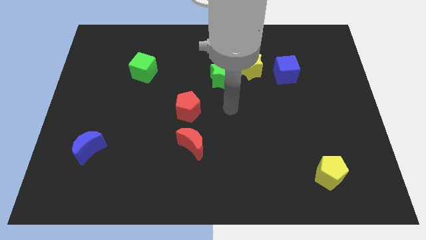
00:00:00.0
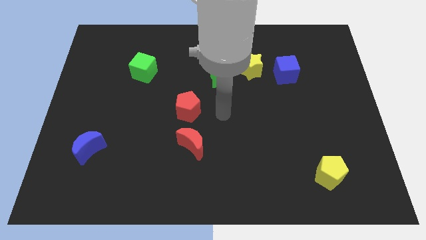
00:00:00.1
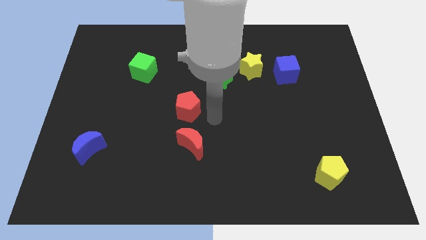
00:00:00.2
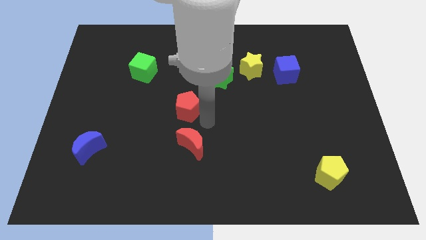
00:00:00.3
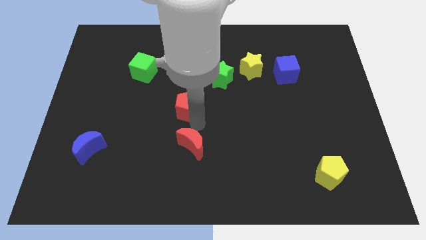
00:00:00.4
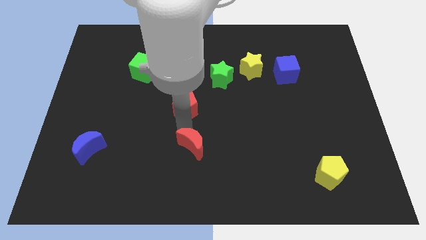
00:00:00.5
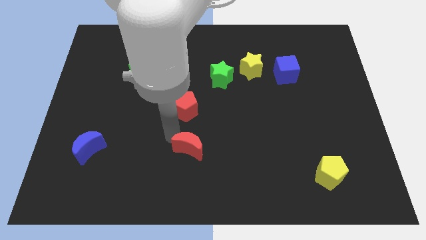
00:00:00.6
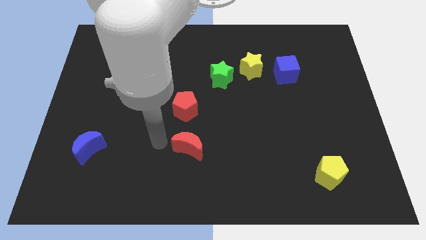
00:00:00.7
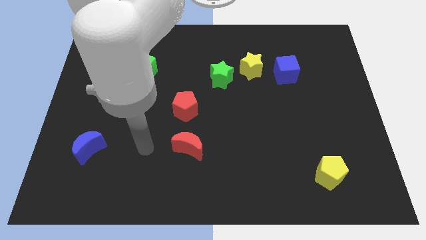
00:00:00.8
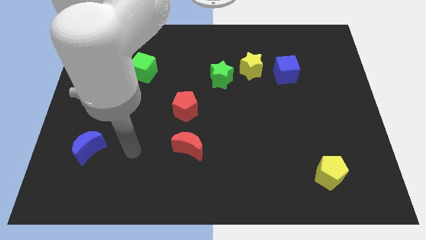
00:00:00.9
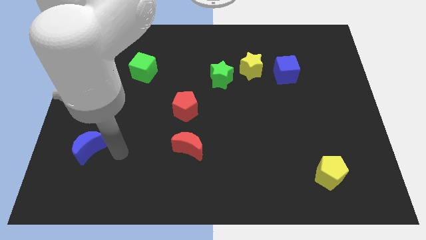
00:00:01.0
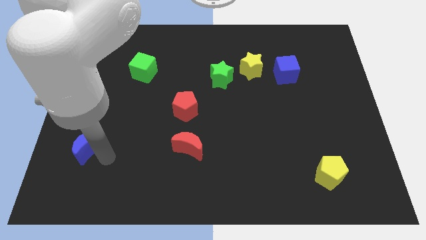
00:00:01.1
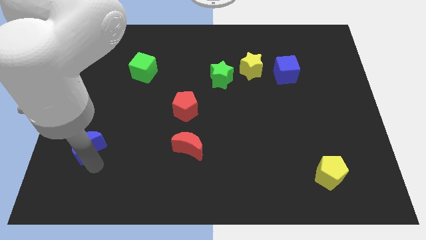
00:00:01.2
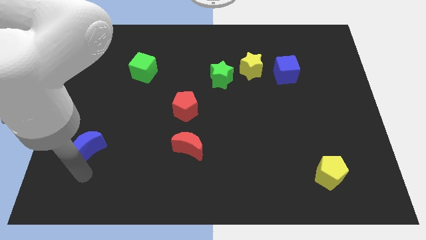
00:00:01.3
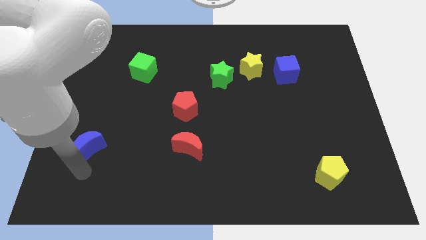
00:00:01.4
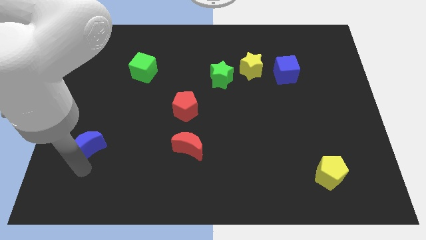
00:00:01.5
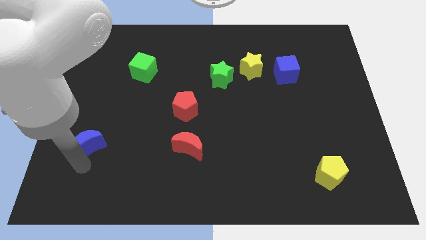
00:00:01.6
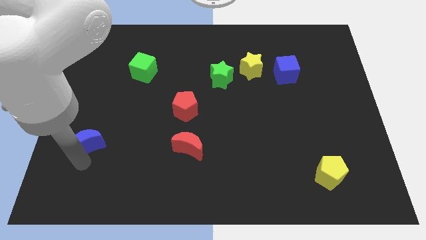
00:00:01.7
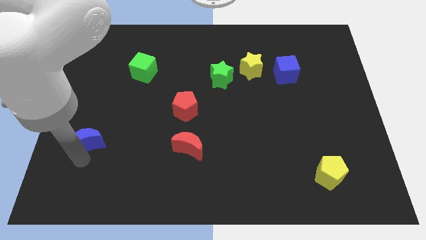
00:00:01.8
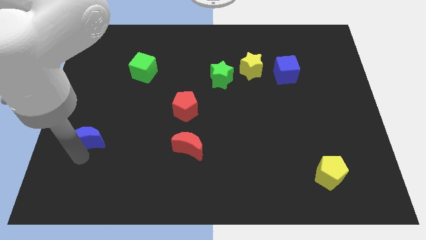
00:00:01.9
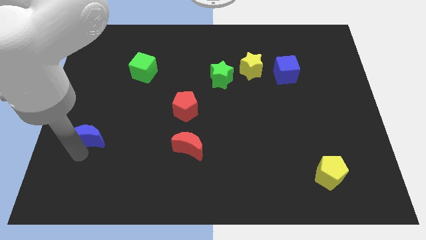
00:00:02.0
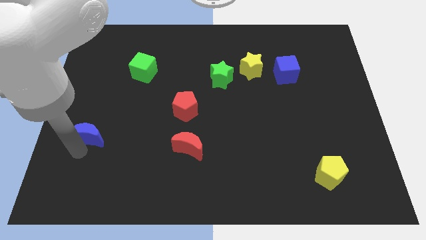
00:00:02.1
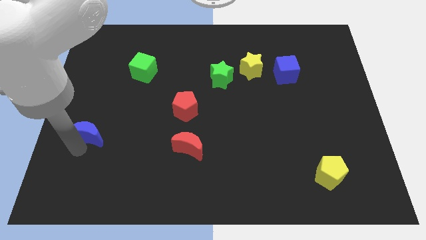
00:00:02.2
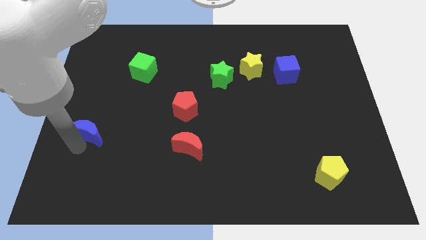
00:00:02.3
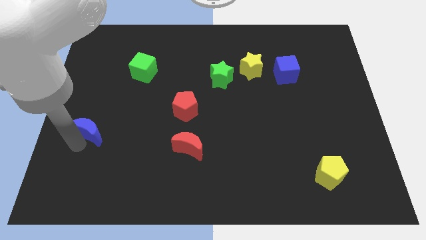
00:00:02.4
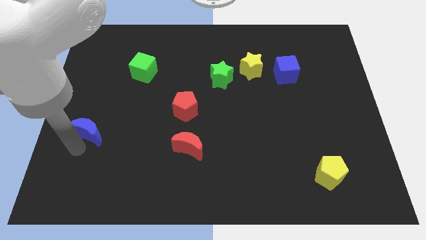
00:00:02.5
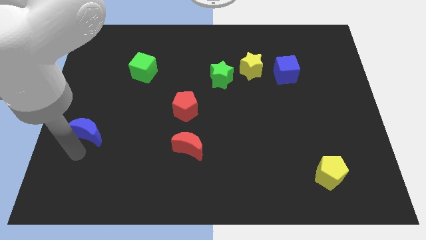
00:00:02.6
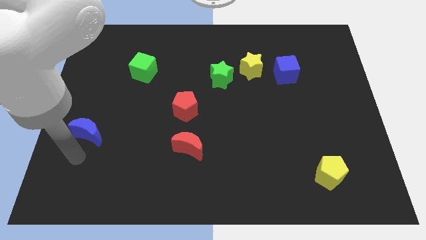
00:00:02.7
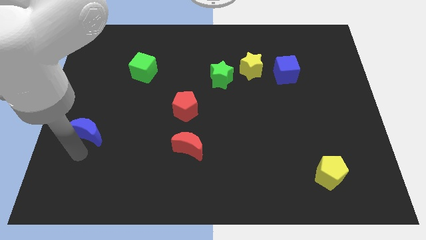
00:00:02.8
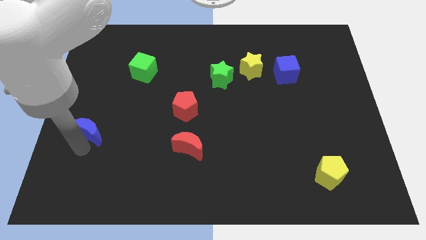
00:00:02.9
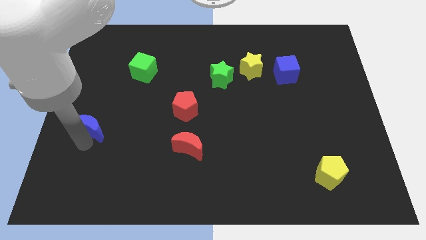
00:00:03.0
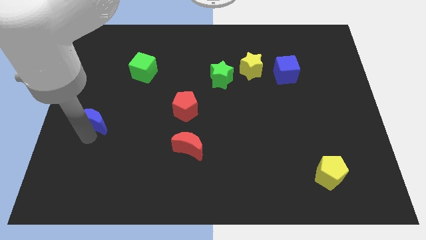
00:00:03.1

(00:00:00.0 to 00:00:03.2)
move the blue moon up slightly

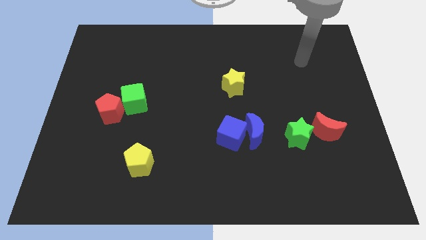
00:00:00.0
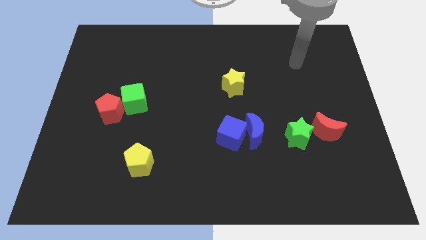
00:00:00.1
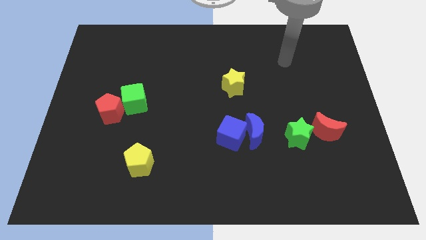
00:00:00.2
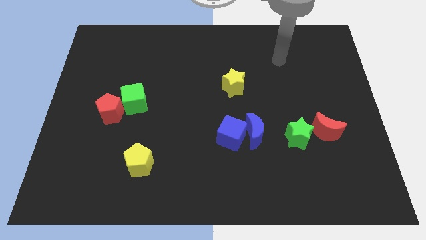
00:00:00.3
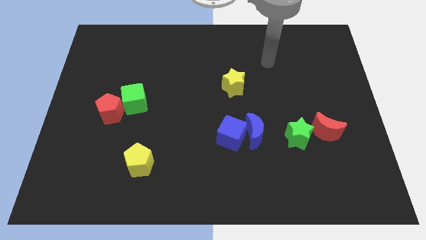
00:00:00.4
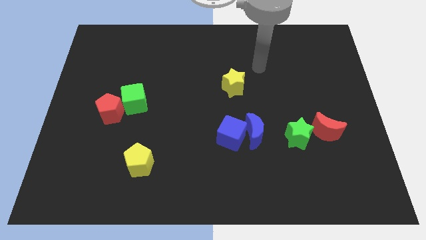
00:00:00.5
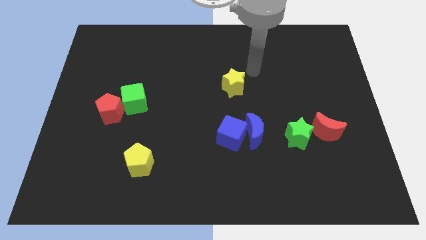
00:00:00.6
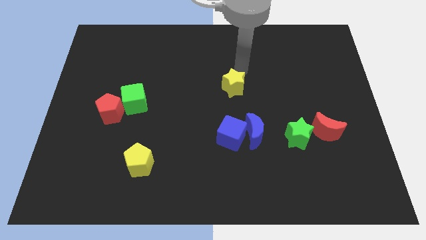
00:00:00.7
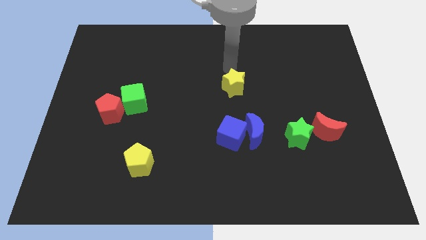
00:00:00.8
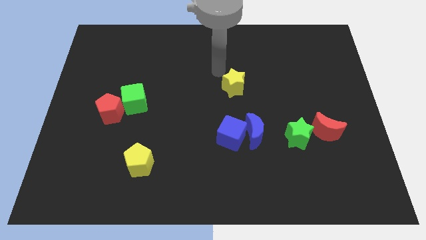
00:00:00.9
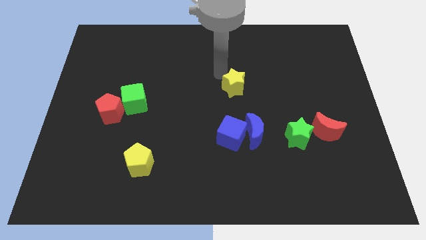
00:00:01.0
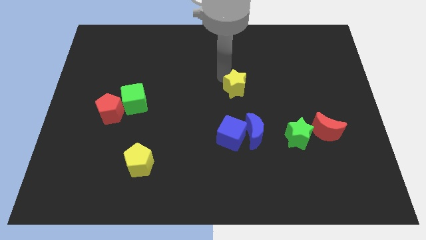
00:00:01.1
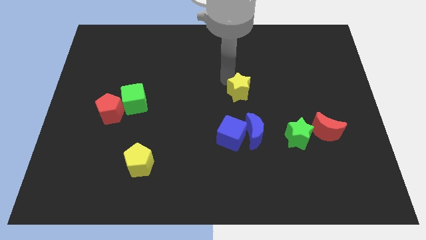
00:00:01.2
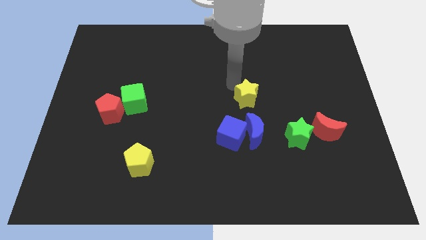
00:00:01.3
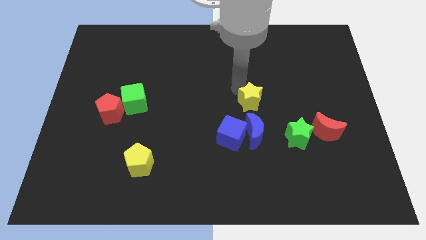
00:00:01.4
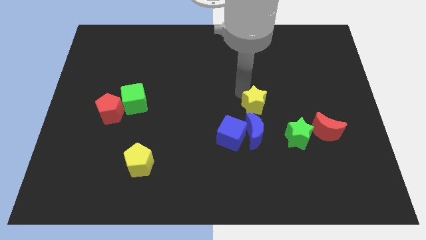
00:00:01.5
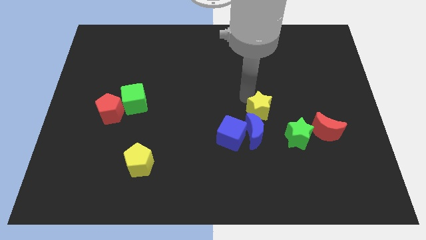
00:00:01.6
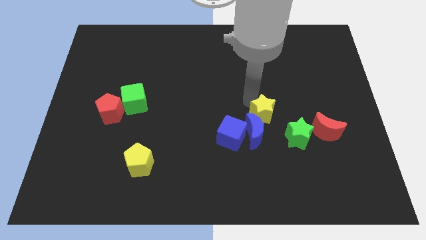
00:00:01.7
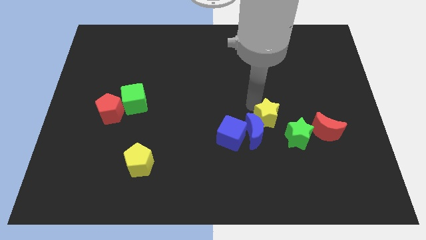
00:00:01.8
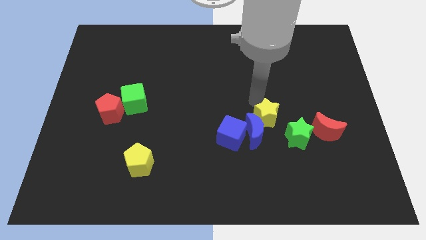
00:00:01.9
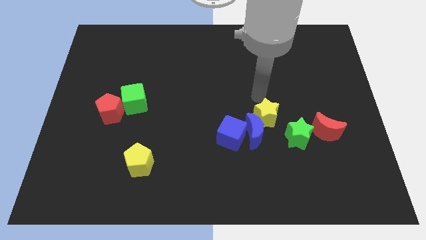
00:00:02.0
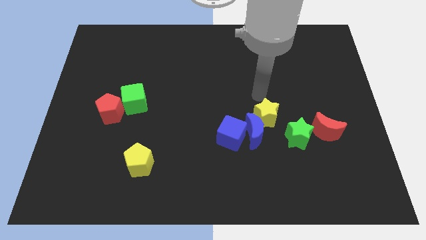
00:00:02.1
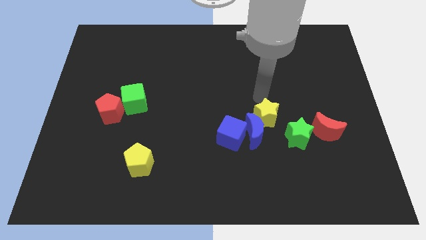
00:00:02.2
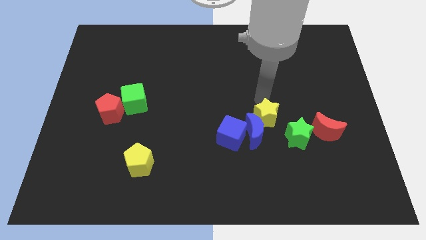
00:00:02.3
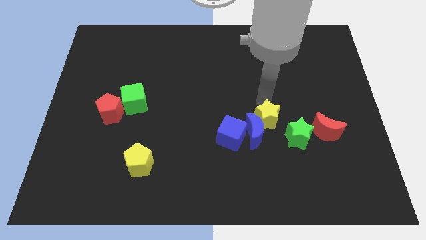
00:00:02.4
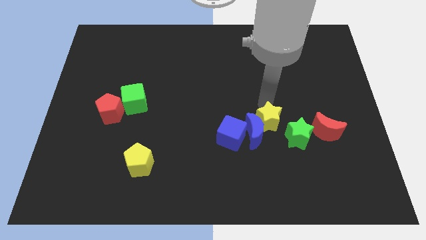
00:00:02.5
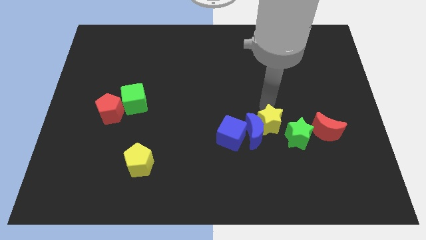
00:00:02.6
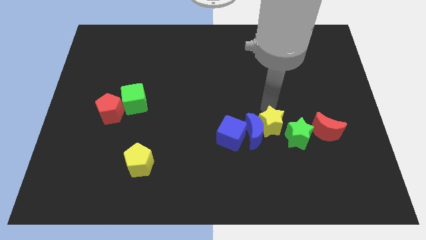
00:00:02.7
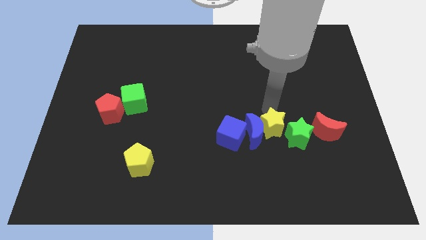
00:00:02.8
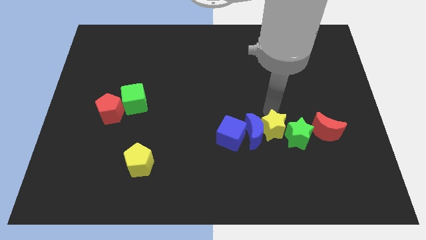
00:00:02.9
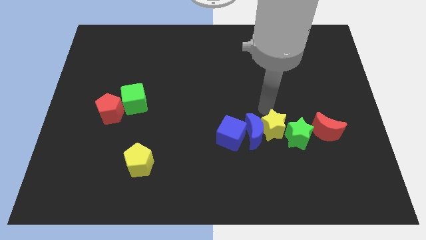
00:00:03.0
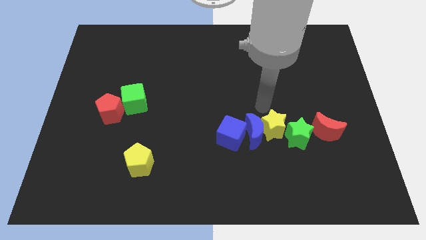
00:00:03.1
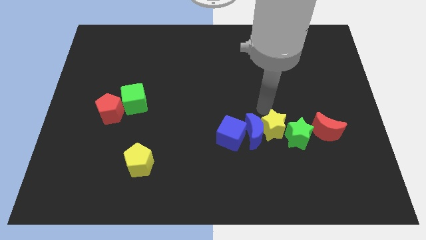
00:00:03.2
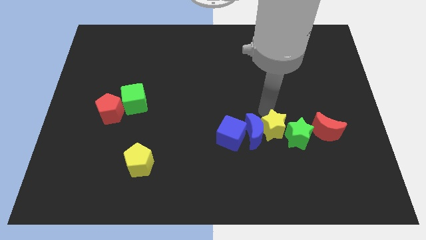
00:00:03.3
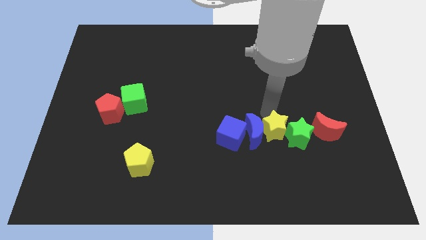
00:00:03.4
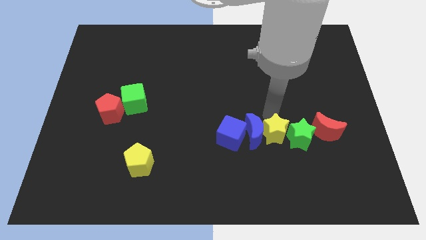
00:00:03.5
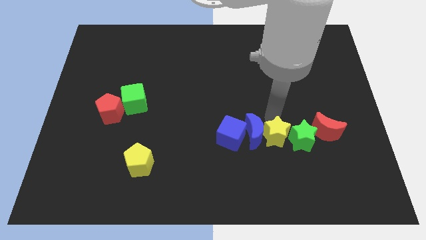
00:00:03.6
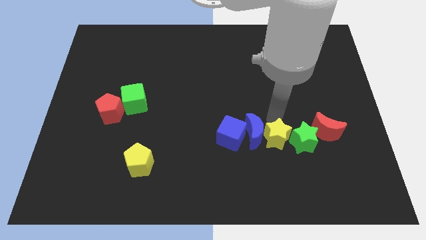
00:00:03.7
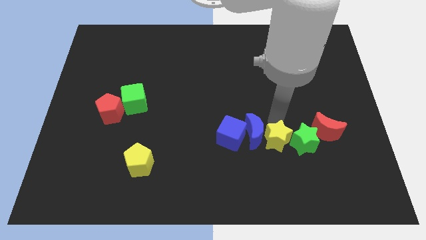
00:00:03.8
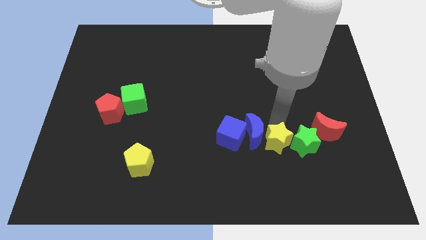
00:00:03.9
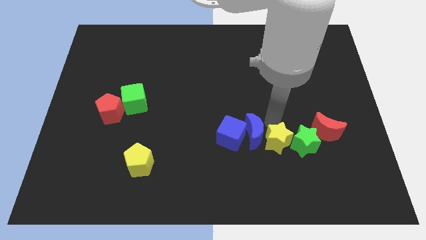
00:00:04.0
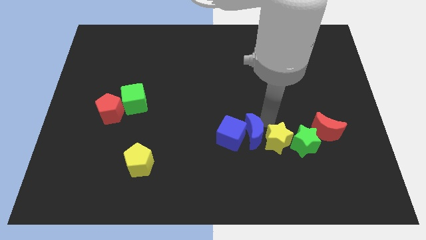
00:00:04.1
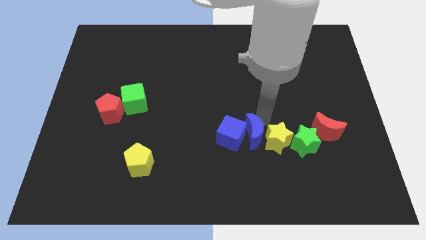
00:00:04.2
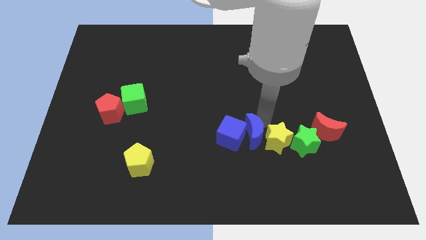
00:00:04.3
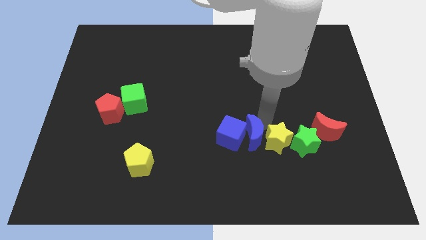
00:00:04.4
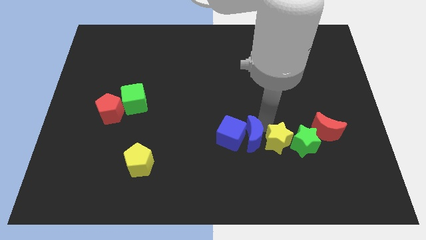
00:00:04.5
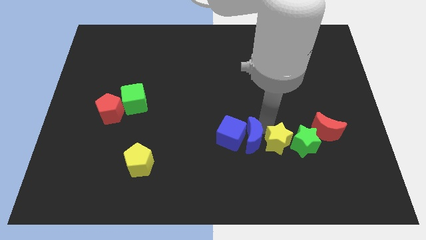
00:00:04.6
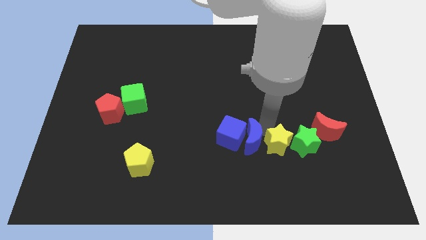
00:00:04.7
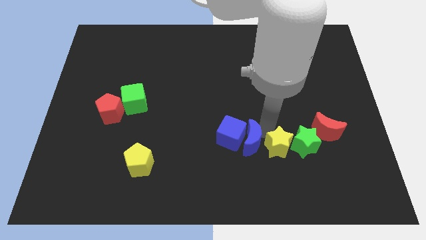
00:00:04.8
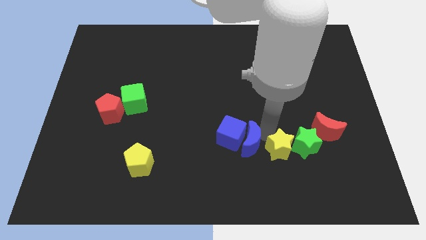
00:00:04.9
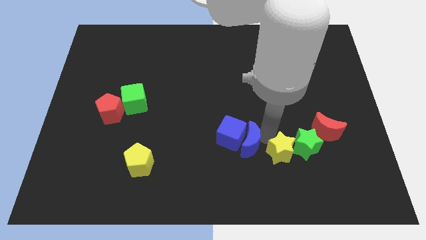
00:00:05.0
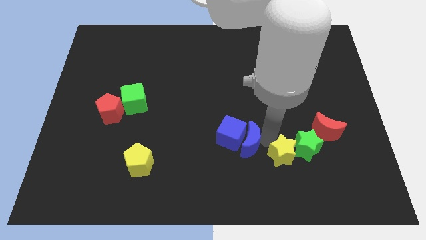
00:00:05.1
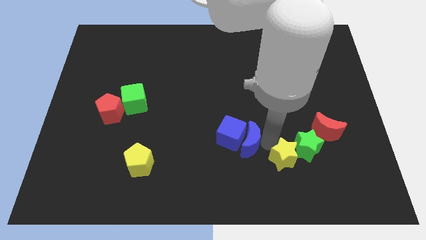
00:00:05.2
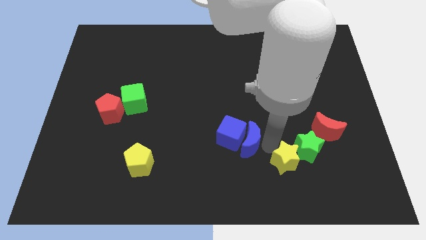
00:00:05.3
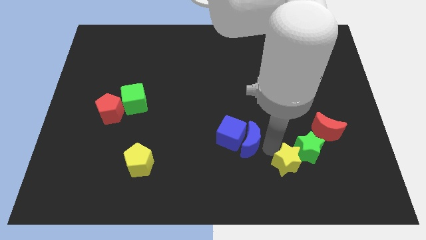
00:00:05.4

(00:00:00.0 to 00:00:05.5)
push the yellow star diagonally down and right
